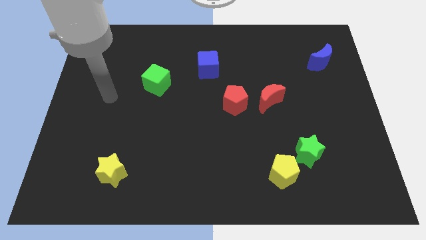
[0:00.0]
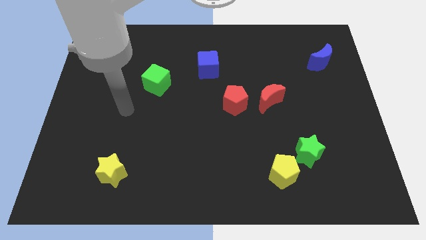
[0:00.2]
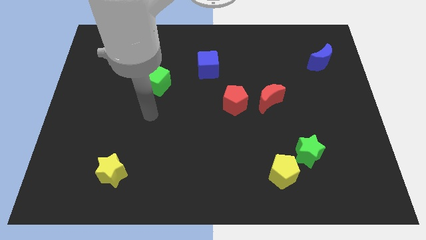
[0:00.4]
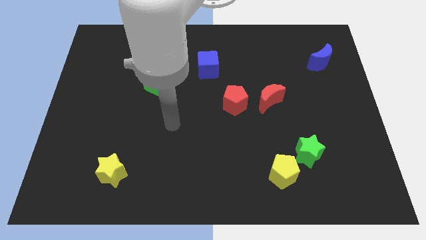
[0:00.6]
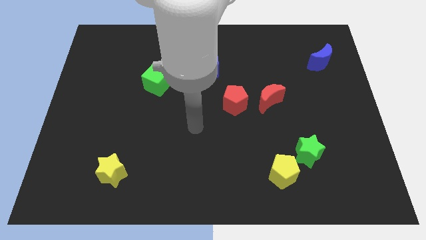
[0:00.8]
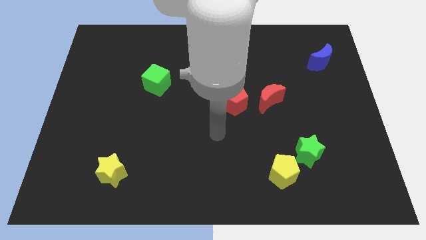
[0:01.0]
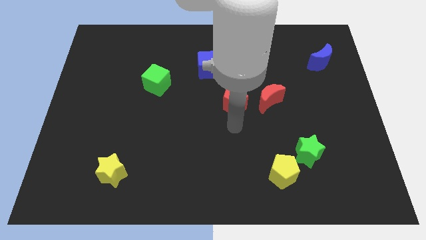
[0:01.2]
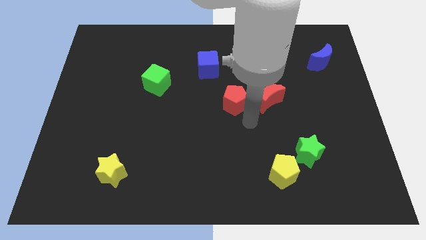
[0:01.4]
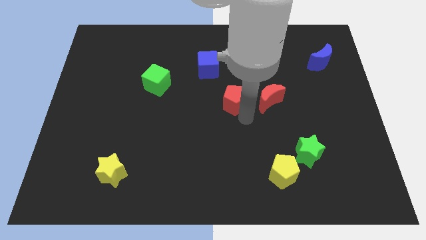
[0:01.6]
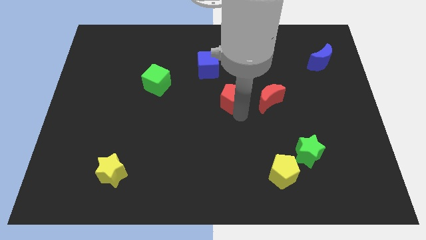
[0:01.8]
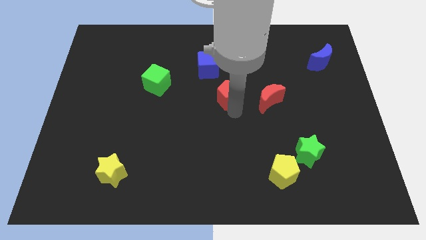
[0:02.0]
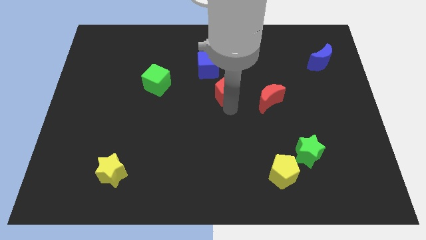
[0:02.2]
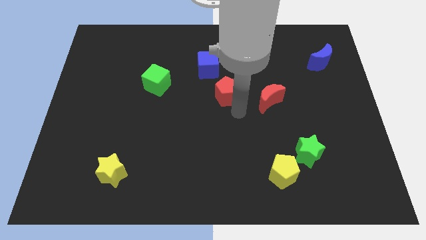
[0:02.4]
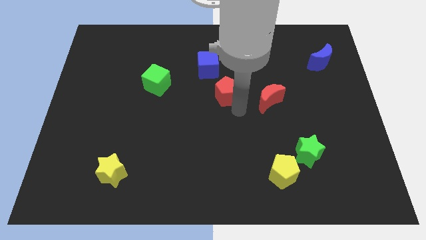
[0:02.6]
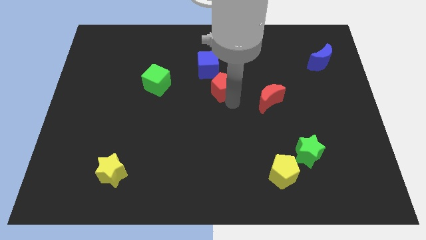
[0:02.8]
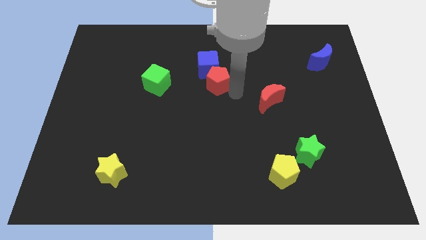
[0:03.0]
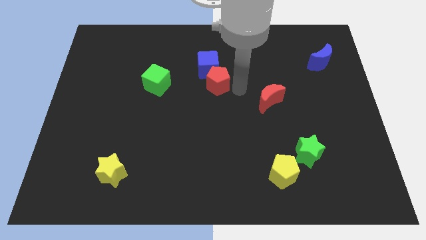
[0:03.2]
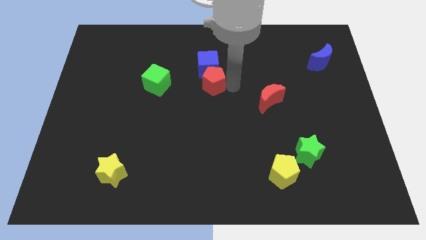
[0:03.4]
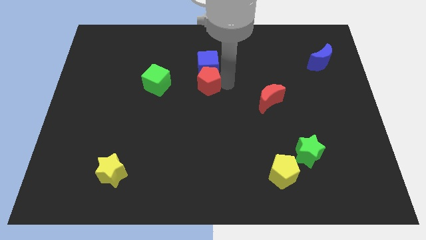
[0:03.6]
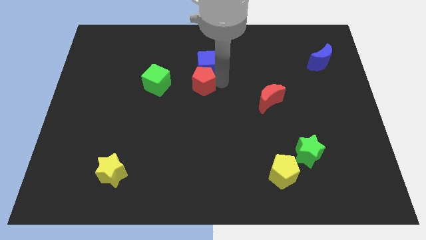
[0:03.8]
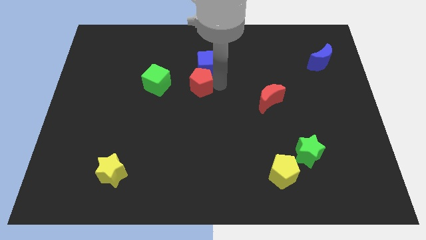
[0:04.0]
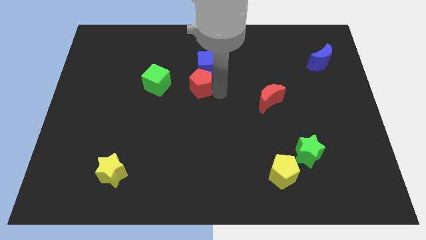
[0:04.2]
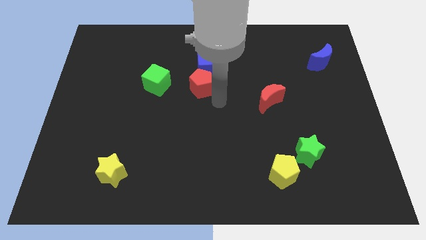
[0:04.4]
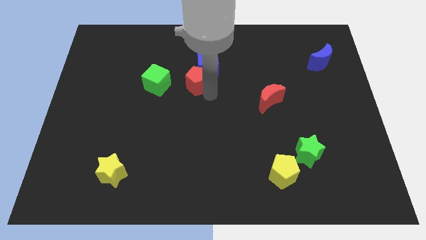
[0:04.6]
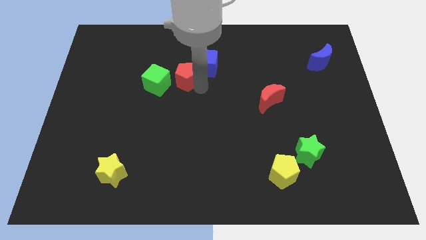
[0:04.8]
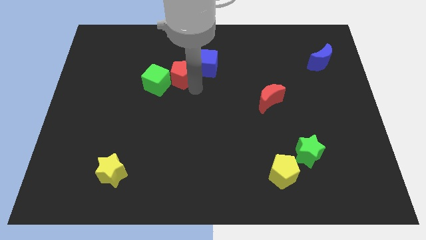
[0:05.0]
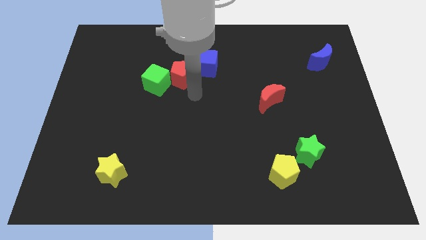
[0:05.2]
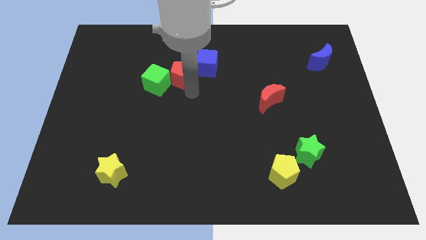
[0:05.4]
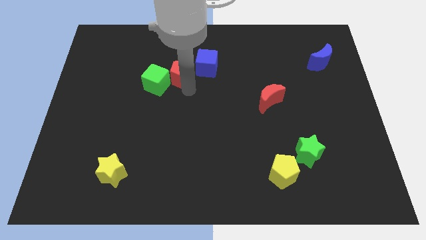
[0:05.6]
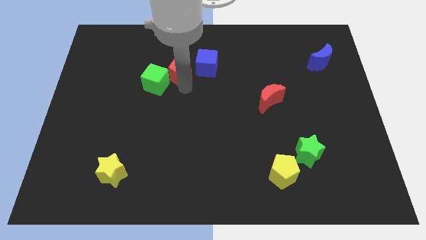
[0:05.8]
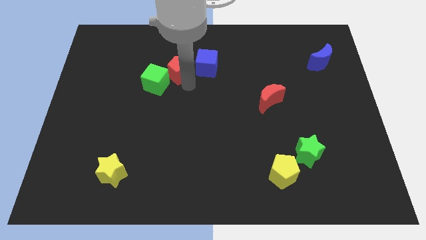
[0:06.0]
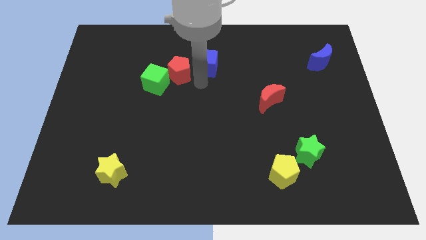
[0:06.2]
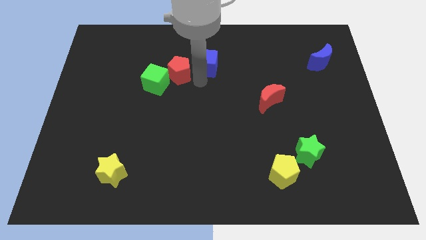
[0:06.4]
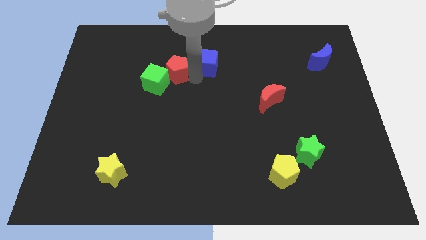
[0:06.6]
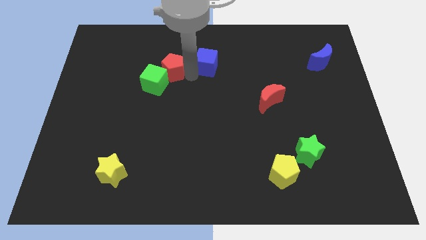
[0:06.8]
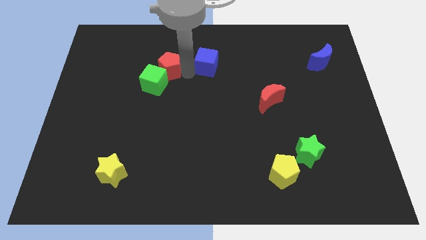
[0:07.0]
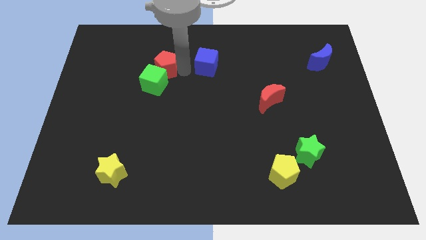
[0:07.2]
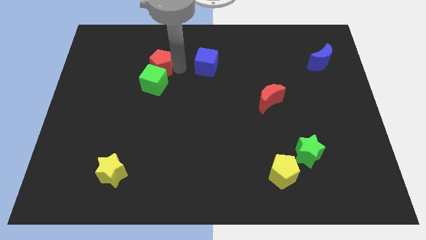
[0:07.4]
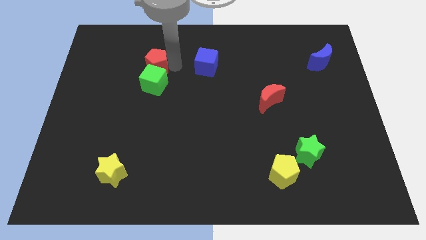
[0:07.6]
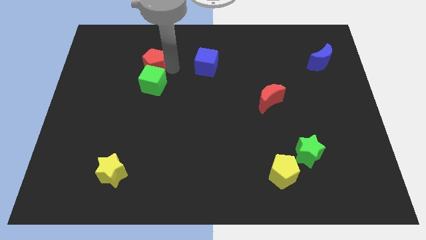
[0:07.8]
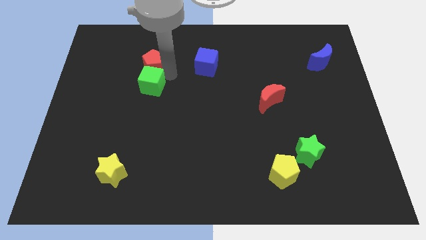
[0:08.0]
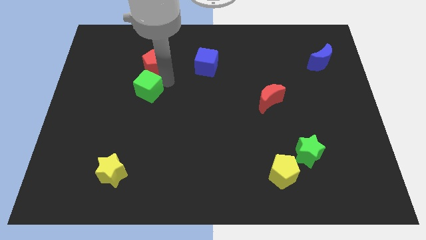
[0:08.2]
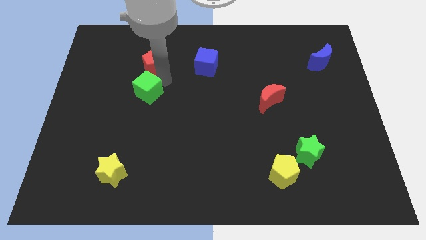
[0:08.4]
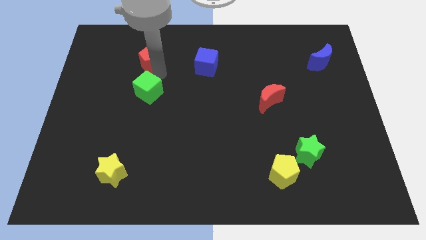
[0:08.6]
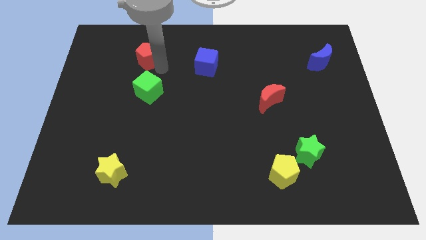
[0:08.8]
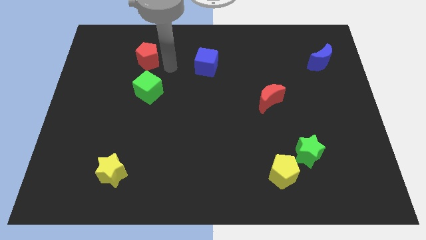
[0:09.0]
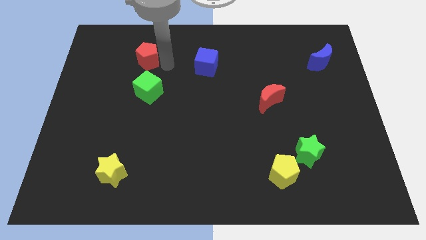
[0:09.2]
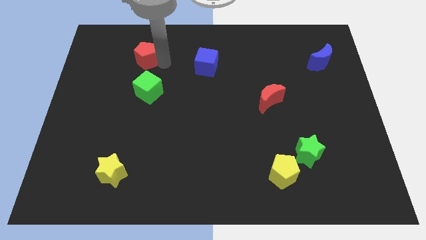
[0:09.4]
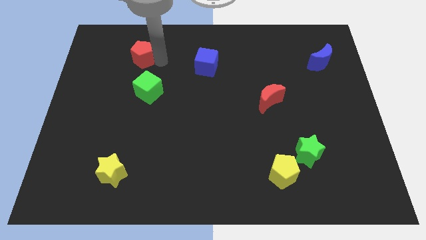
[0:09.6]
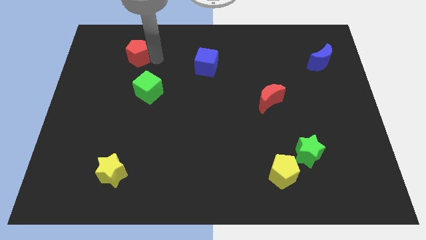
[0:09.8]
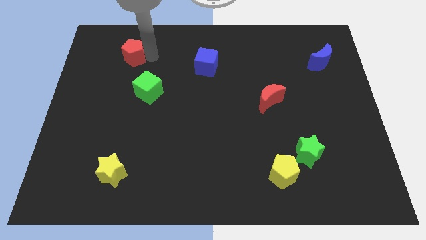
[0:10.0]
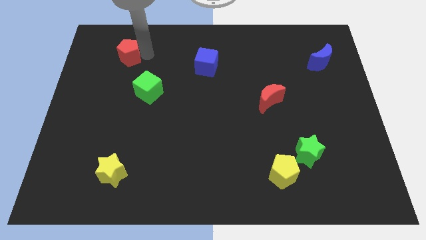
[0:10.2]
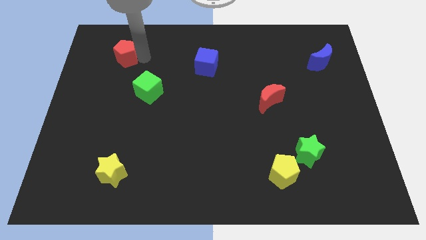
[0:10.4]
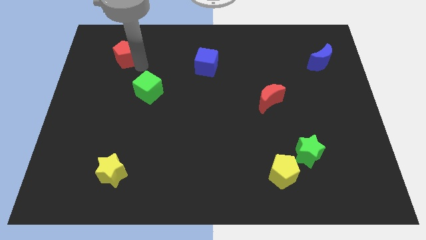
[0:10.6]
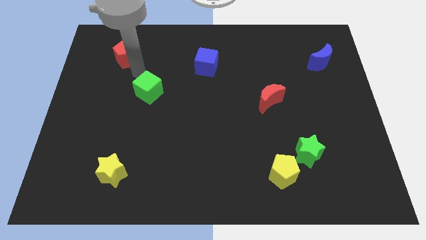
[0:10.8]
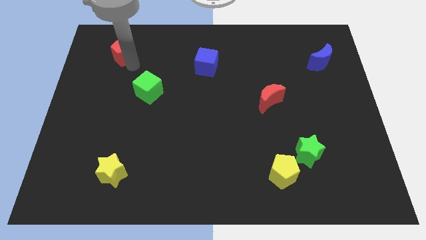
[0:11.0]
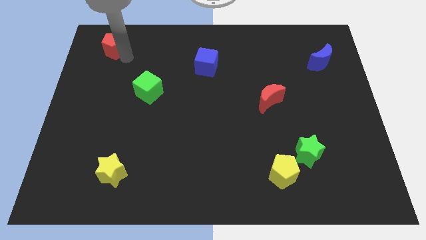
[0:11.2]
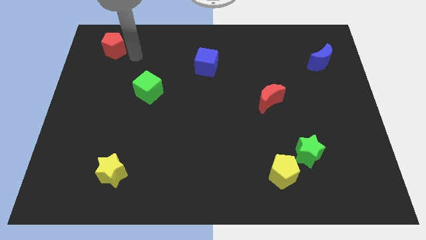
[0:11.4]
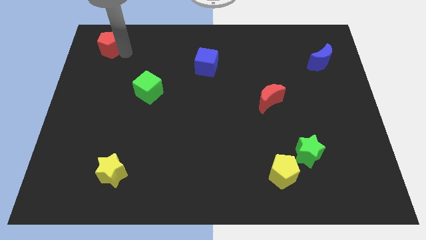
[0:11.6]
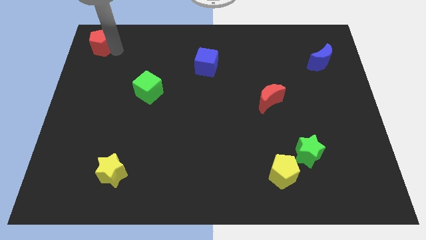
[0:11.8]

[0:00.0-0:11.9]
push the red pentagon to the top left
